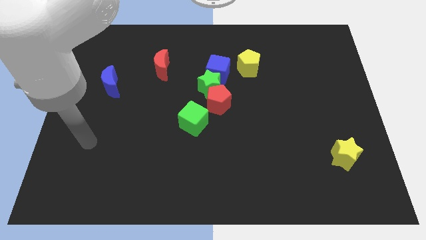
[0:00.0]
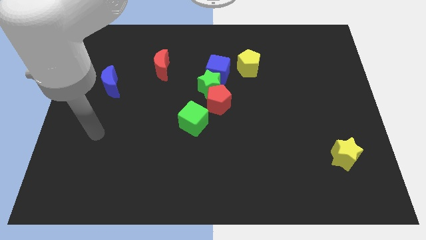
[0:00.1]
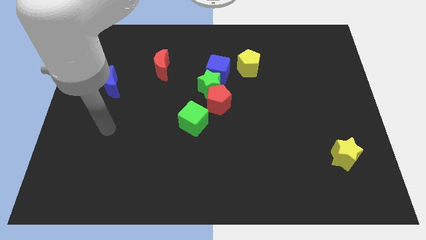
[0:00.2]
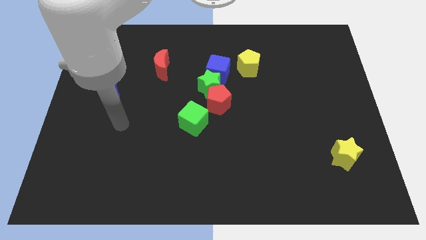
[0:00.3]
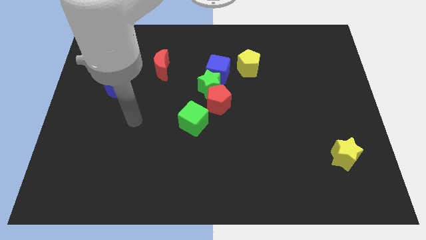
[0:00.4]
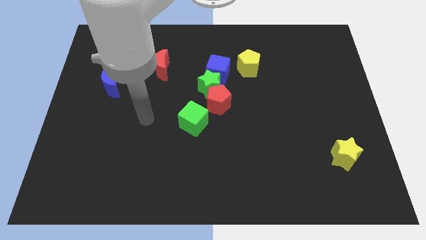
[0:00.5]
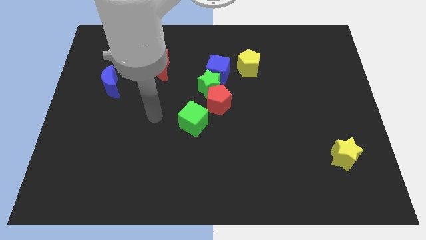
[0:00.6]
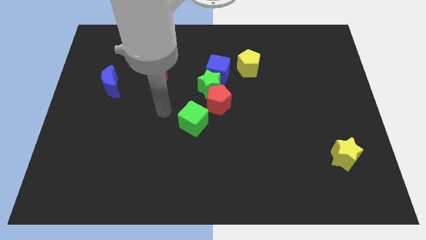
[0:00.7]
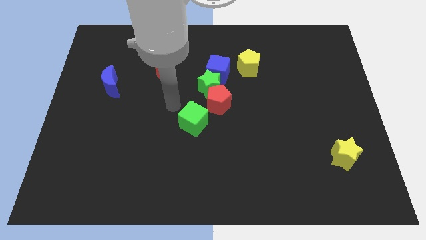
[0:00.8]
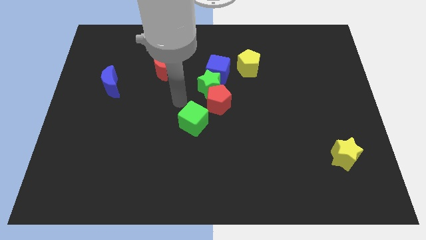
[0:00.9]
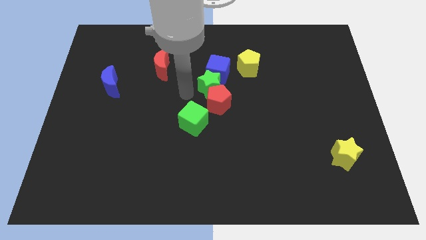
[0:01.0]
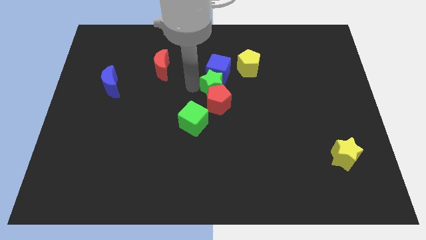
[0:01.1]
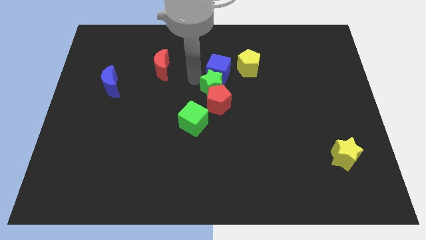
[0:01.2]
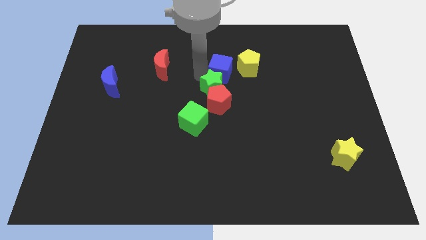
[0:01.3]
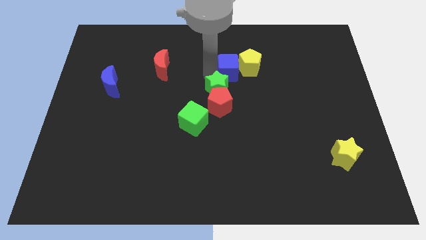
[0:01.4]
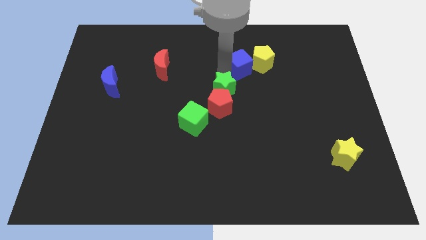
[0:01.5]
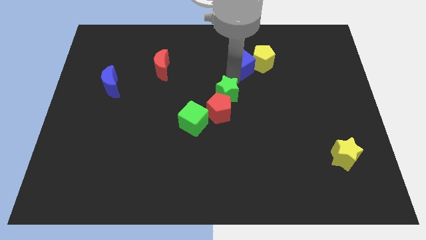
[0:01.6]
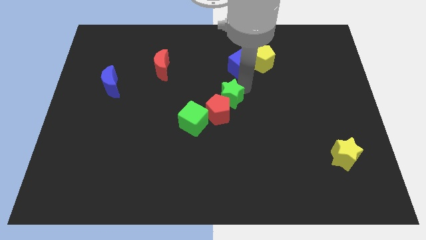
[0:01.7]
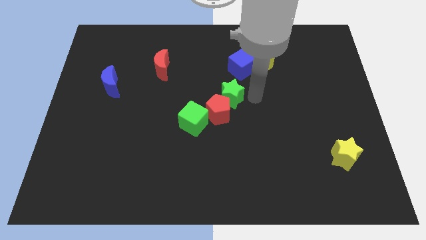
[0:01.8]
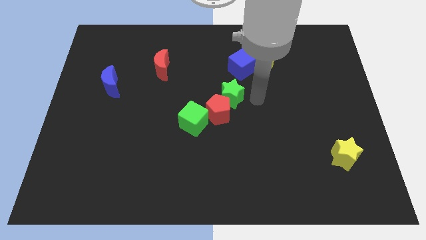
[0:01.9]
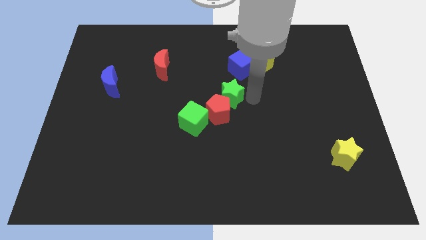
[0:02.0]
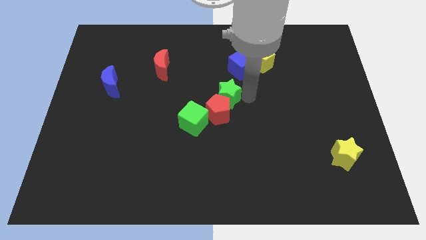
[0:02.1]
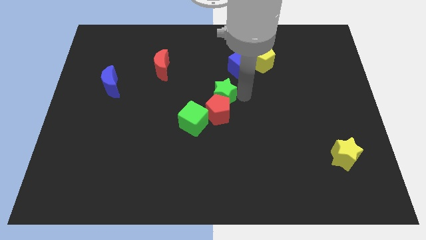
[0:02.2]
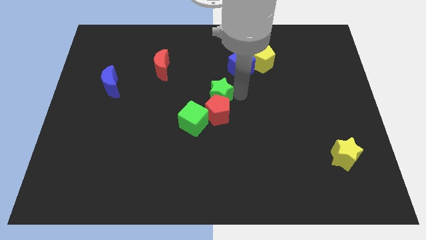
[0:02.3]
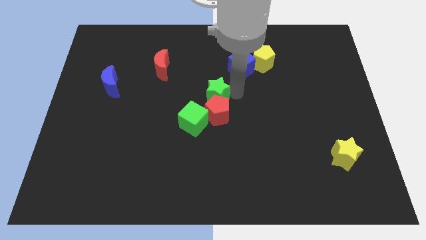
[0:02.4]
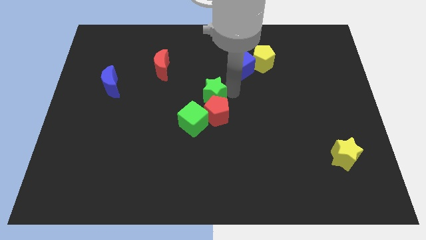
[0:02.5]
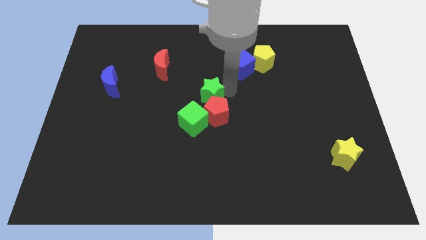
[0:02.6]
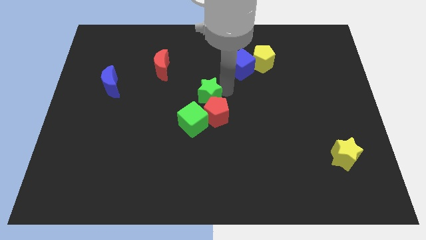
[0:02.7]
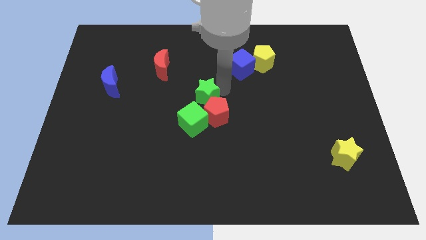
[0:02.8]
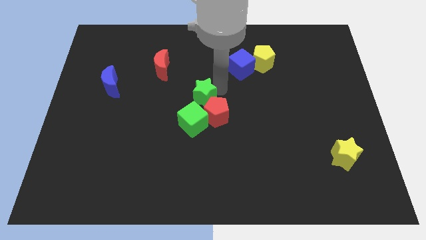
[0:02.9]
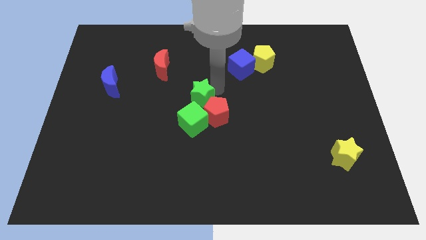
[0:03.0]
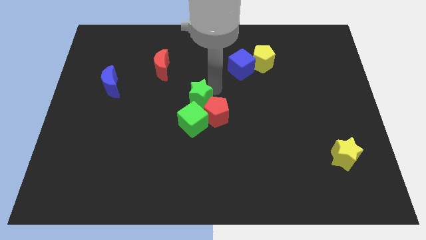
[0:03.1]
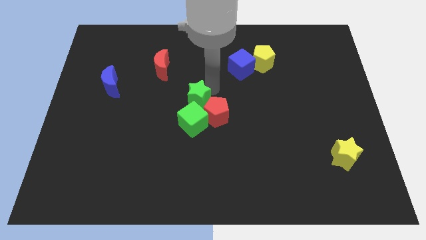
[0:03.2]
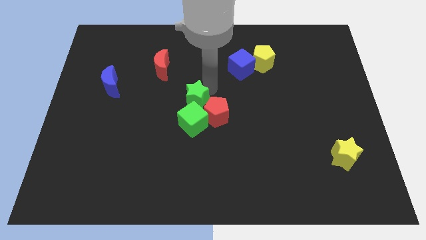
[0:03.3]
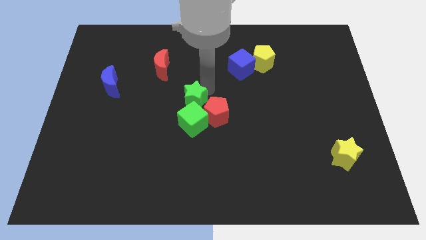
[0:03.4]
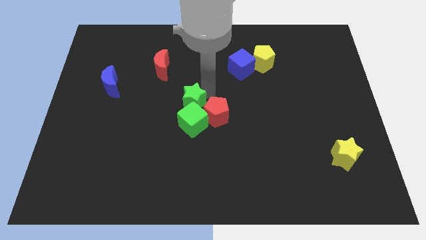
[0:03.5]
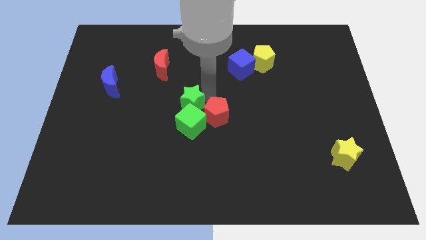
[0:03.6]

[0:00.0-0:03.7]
move the green star away from the red pentagon and blue cube

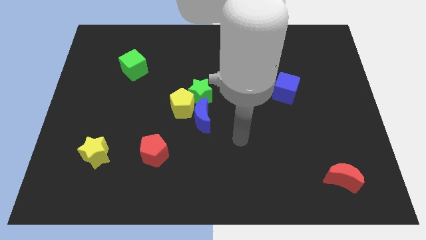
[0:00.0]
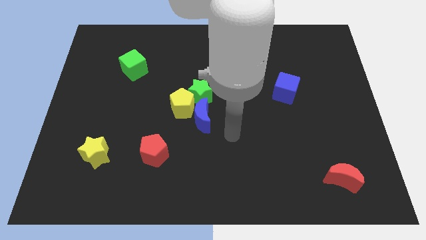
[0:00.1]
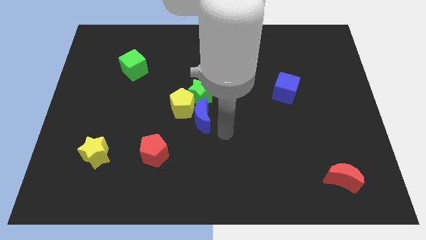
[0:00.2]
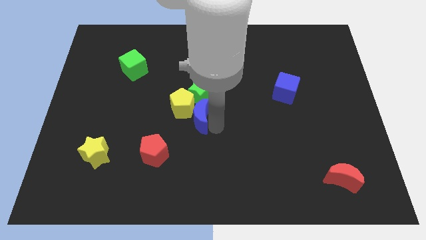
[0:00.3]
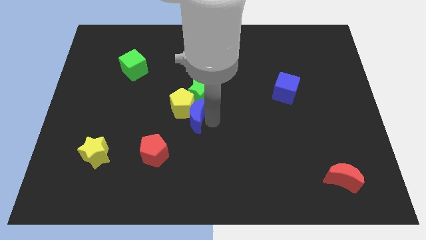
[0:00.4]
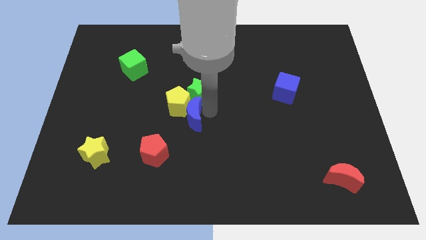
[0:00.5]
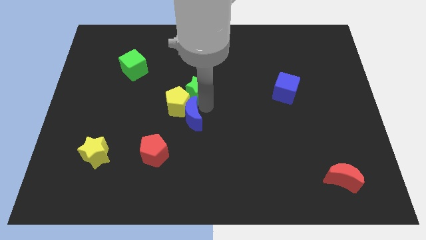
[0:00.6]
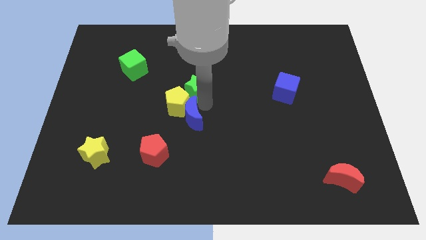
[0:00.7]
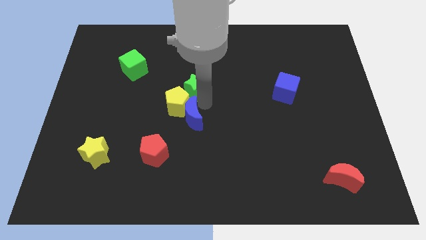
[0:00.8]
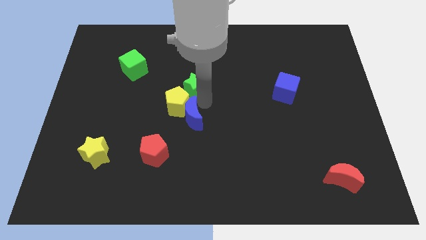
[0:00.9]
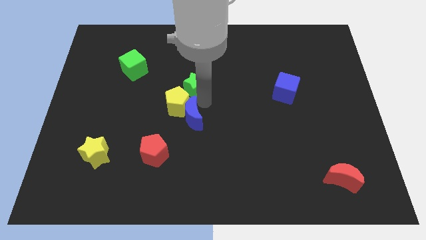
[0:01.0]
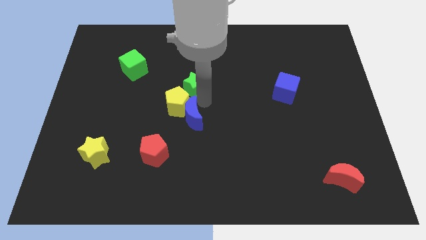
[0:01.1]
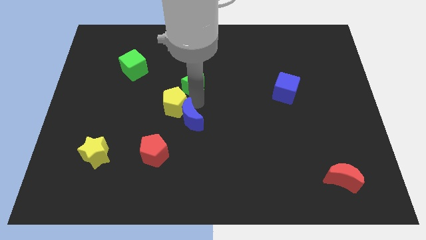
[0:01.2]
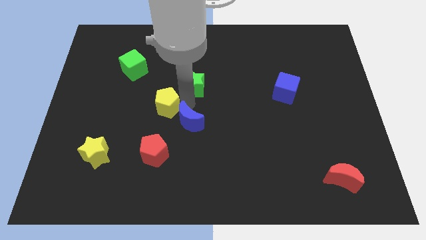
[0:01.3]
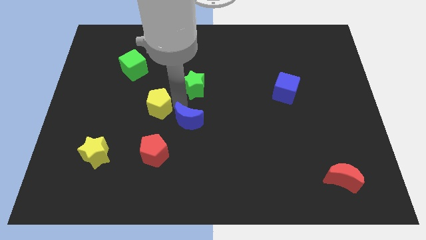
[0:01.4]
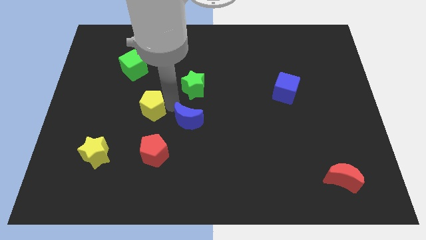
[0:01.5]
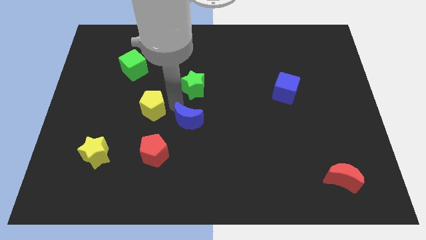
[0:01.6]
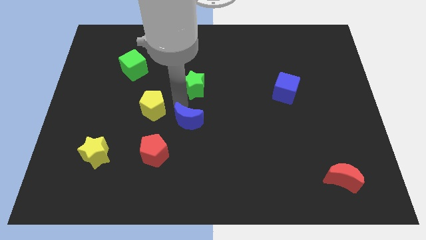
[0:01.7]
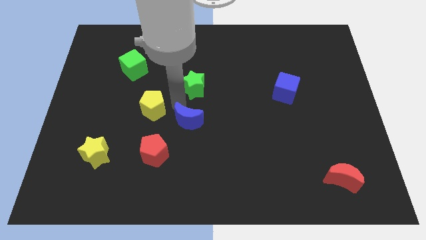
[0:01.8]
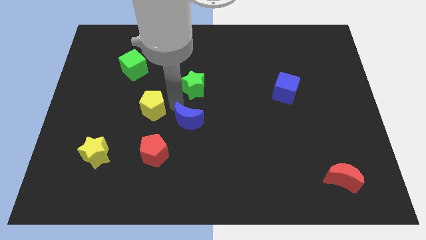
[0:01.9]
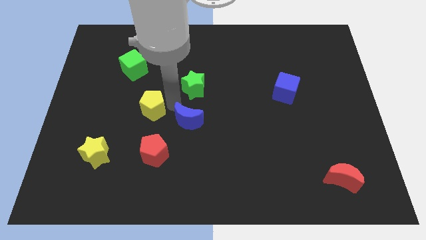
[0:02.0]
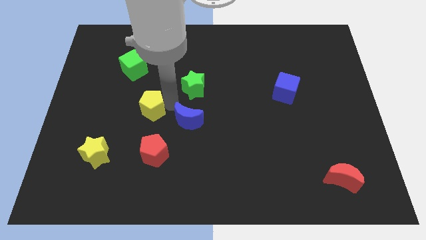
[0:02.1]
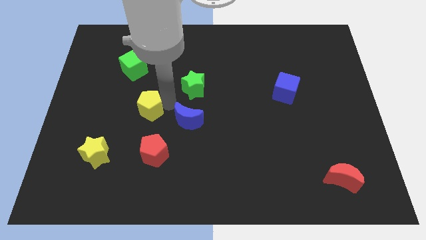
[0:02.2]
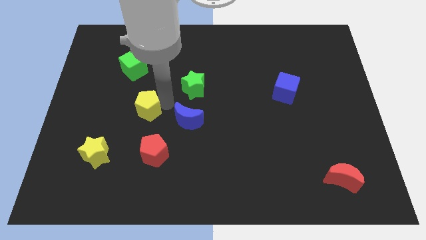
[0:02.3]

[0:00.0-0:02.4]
pull the yellow pentagon apart from the green star and blue moon

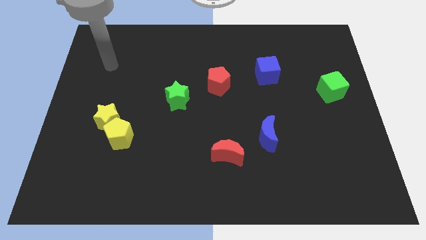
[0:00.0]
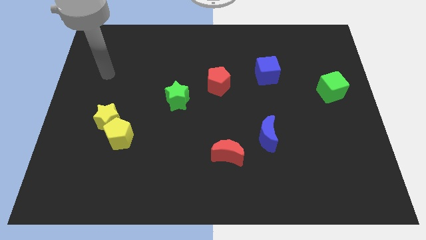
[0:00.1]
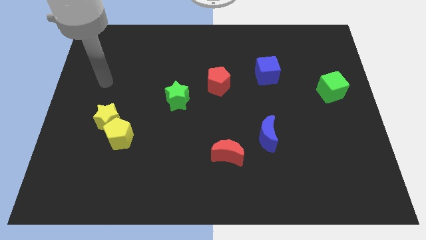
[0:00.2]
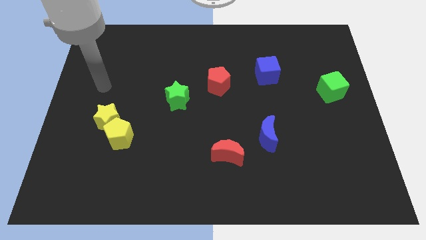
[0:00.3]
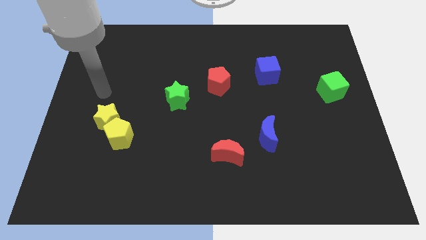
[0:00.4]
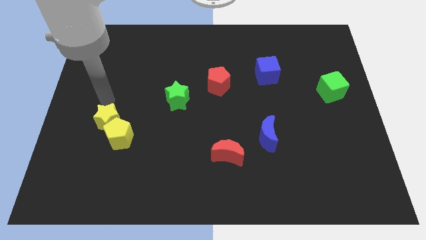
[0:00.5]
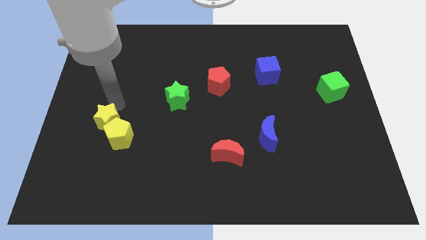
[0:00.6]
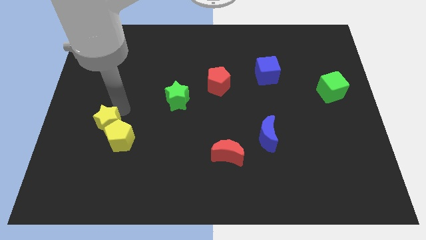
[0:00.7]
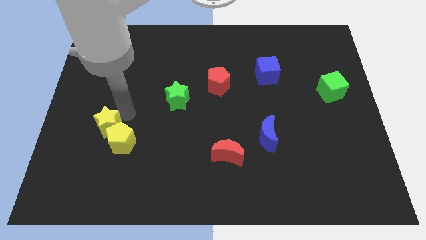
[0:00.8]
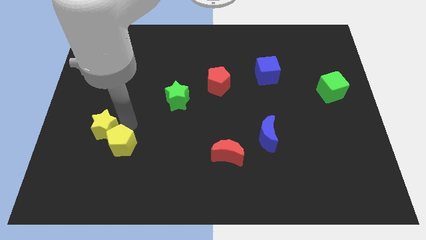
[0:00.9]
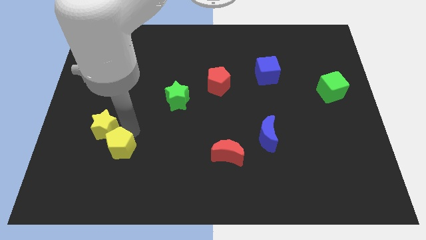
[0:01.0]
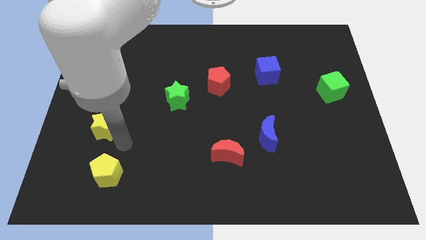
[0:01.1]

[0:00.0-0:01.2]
separate the yellow star from the yellow pentagon

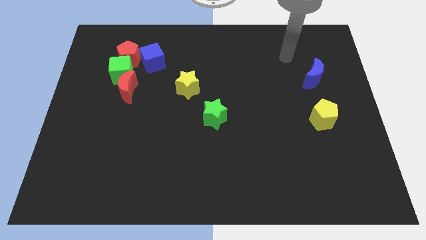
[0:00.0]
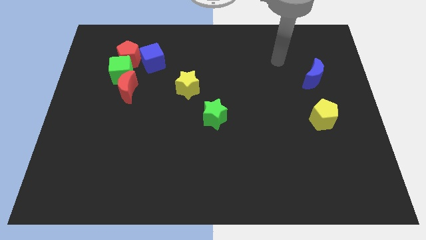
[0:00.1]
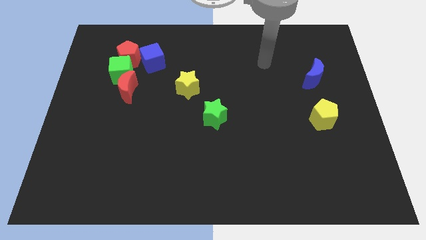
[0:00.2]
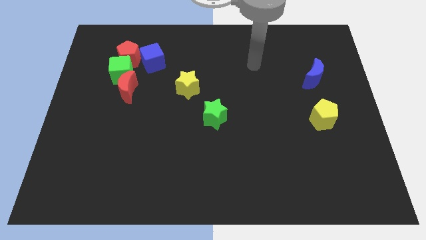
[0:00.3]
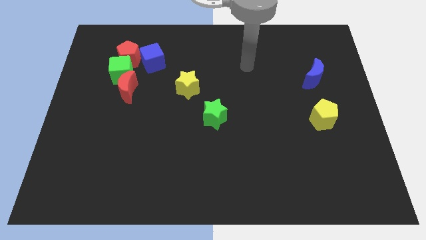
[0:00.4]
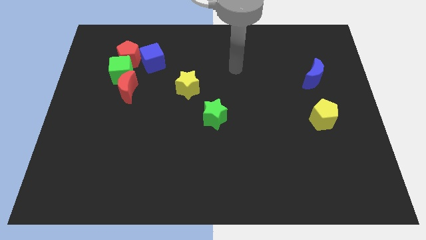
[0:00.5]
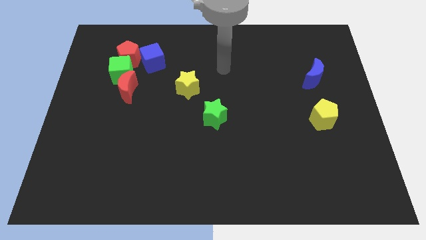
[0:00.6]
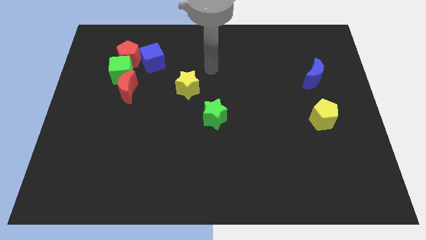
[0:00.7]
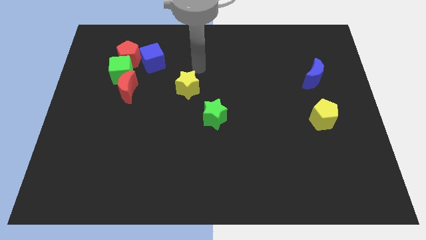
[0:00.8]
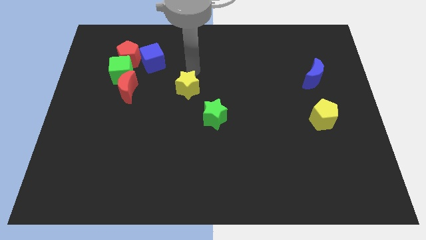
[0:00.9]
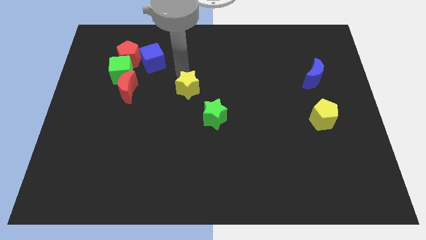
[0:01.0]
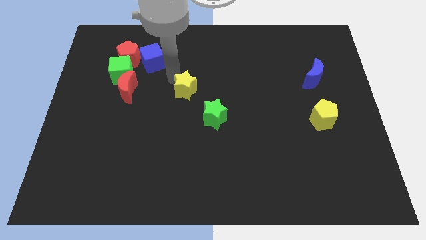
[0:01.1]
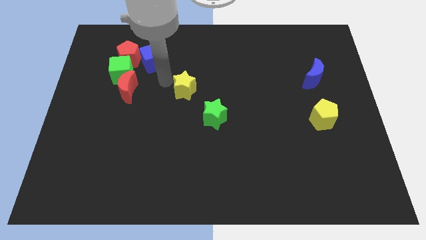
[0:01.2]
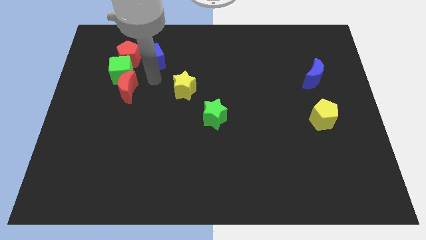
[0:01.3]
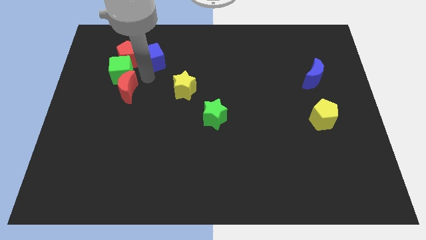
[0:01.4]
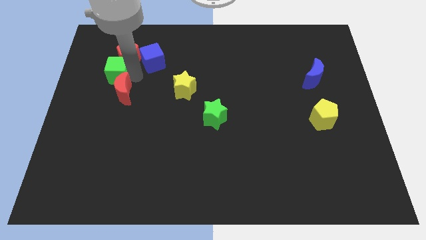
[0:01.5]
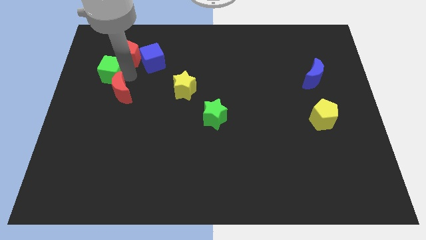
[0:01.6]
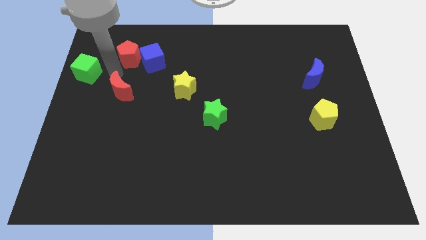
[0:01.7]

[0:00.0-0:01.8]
pull the red moon apart from the green cube

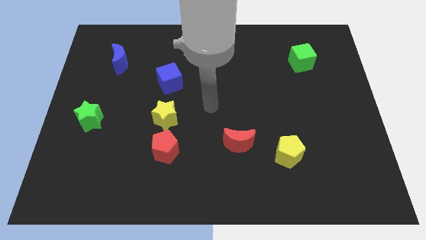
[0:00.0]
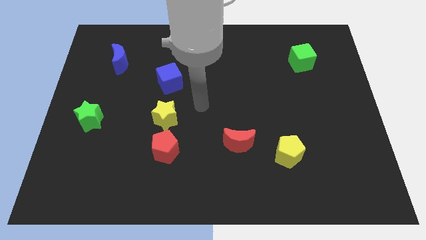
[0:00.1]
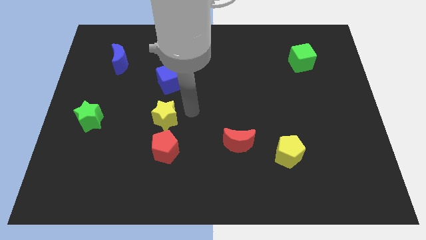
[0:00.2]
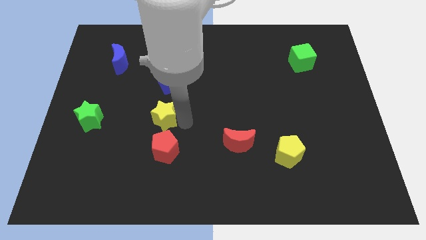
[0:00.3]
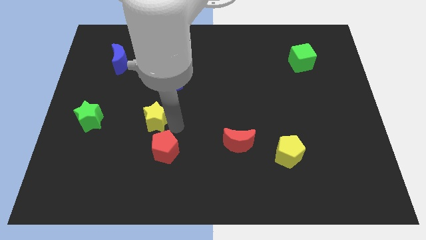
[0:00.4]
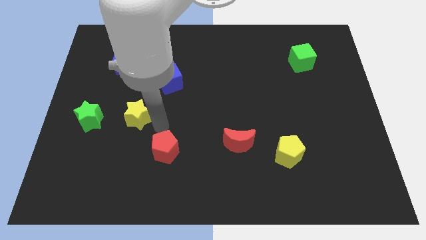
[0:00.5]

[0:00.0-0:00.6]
pull the red pentagon apart from the yellow star
